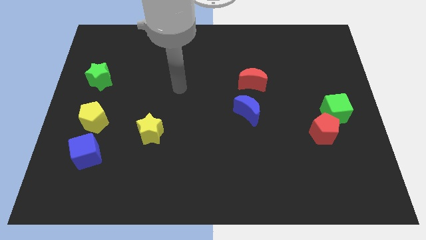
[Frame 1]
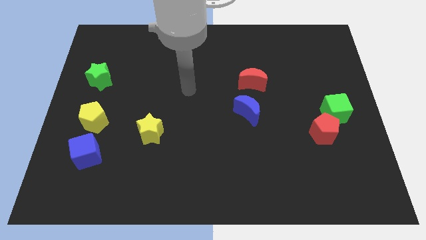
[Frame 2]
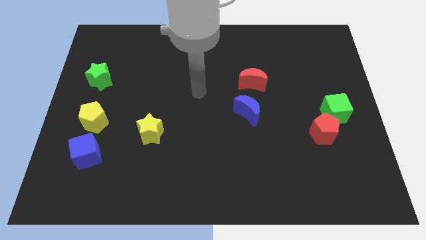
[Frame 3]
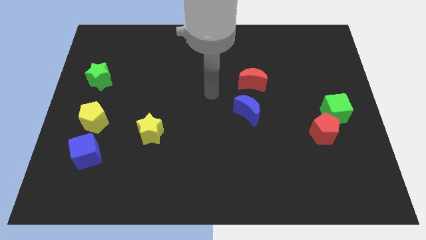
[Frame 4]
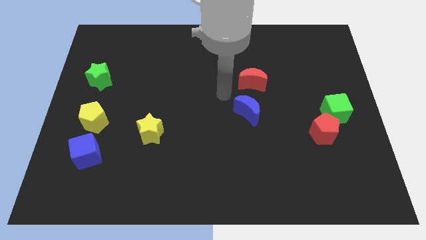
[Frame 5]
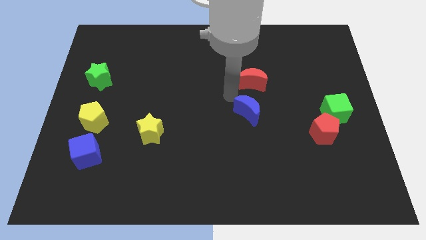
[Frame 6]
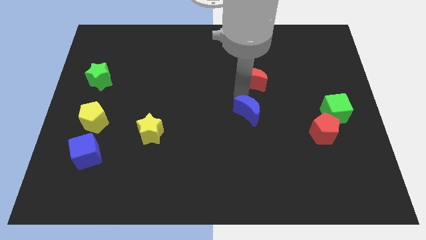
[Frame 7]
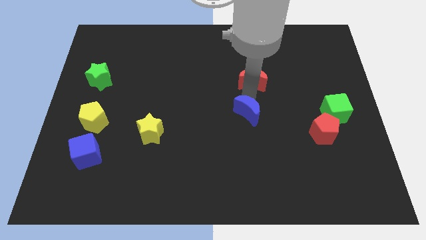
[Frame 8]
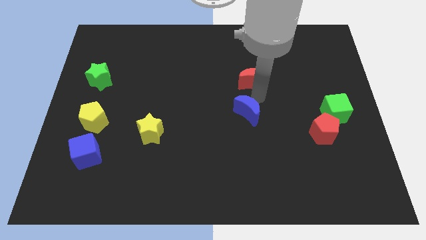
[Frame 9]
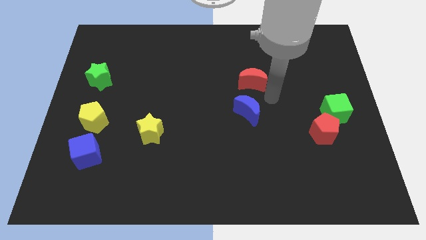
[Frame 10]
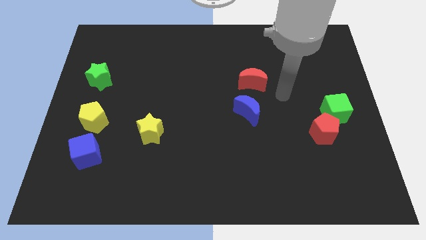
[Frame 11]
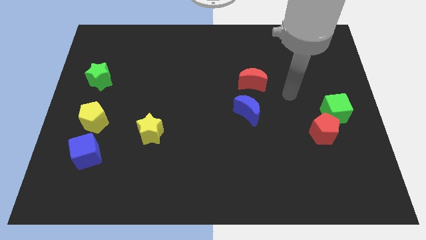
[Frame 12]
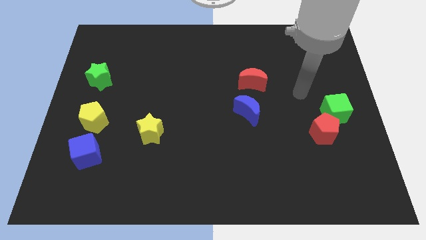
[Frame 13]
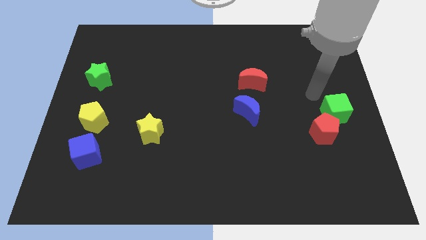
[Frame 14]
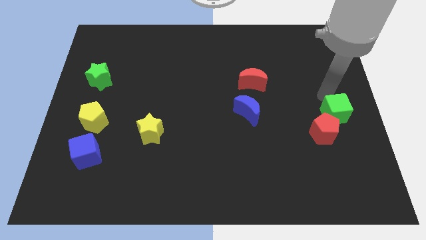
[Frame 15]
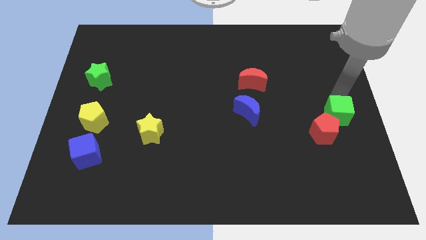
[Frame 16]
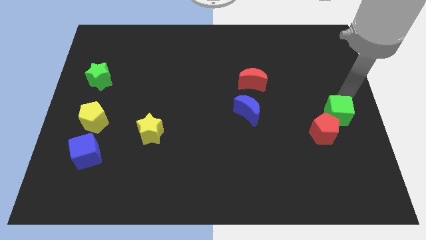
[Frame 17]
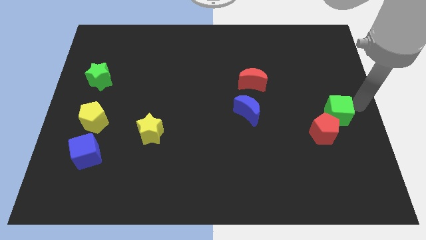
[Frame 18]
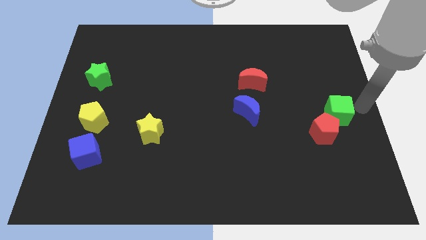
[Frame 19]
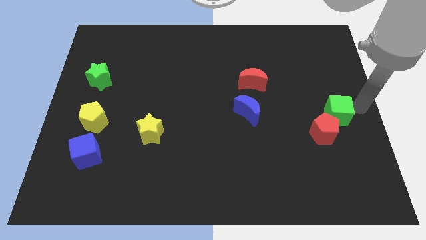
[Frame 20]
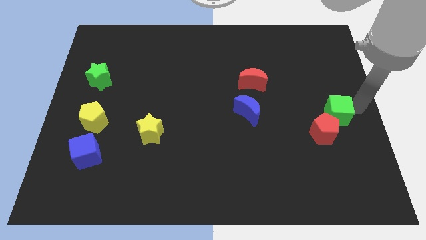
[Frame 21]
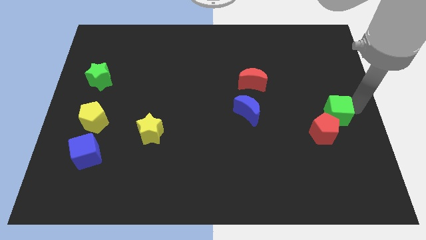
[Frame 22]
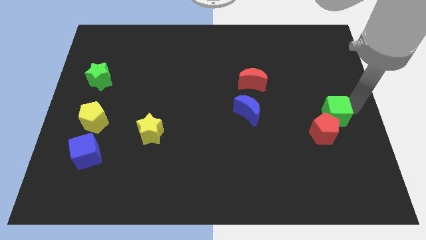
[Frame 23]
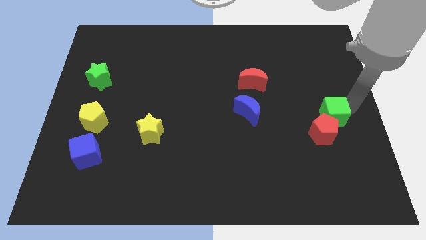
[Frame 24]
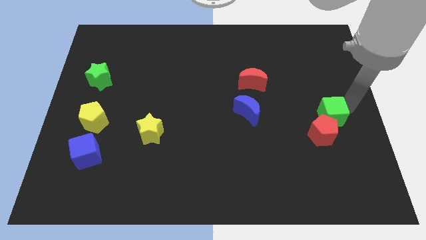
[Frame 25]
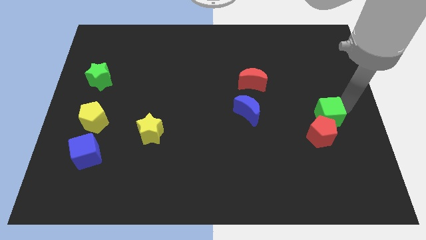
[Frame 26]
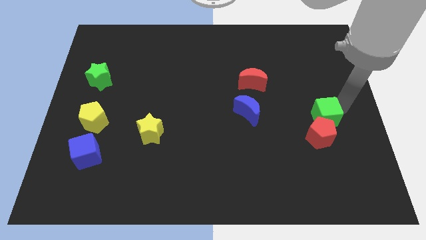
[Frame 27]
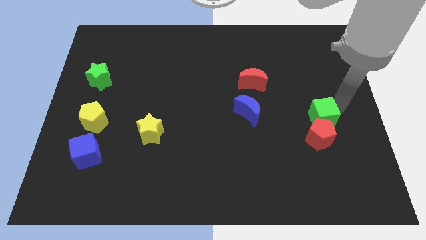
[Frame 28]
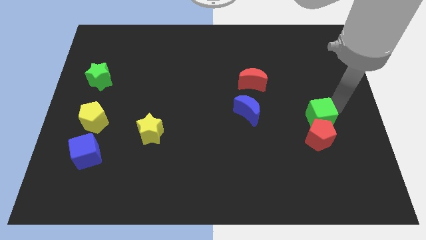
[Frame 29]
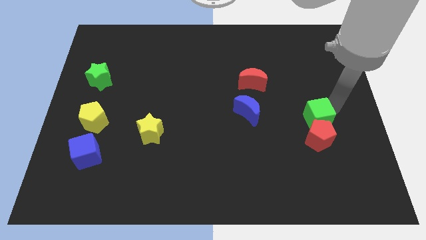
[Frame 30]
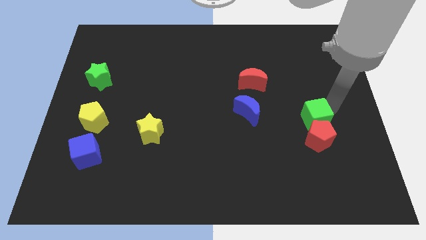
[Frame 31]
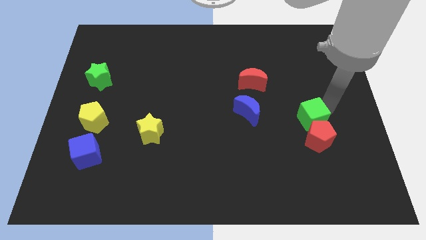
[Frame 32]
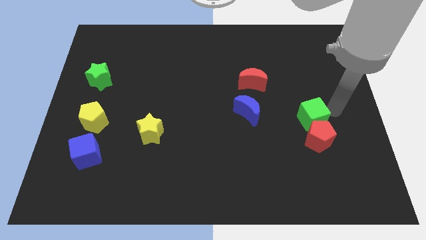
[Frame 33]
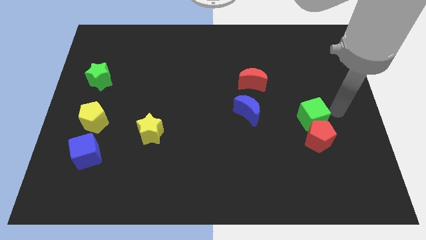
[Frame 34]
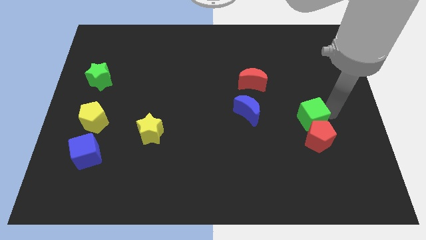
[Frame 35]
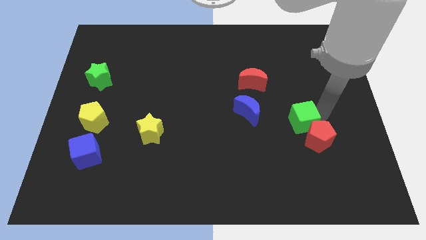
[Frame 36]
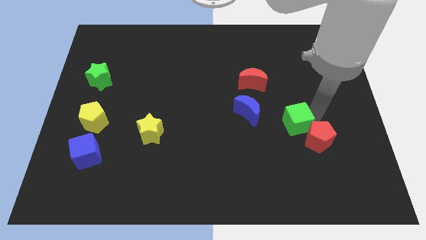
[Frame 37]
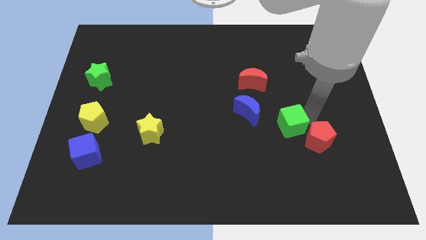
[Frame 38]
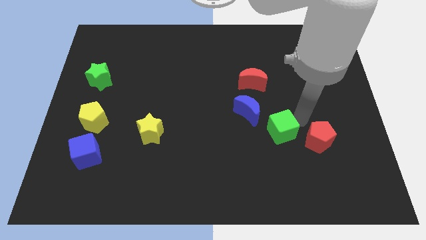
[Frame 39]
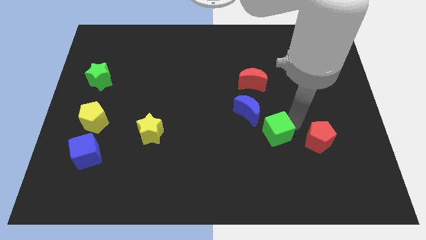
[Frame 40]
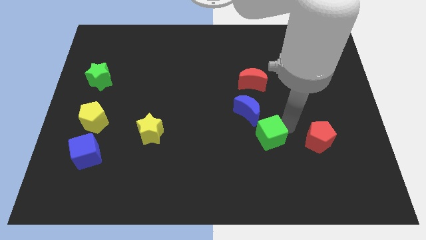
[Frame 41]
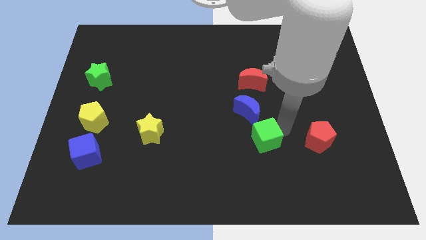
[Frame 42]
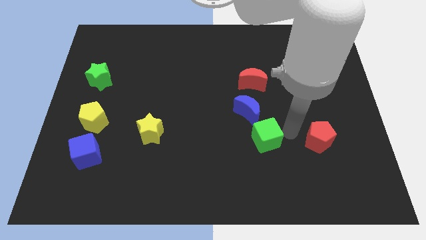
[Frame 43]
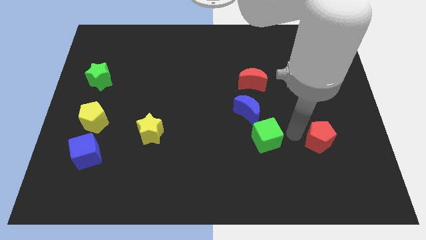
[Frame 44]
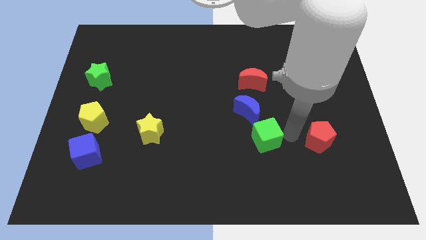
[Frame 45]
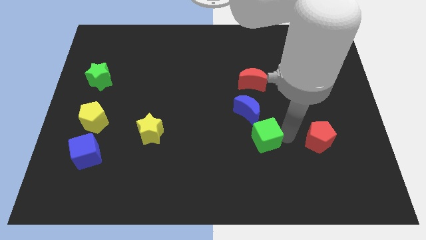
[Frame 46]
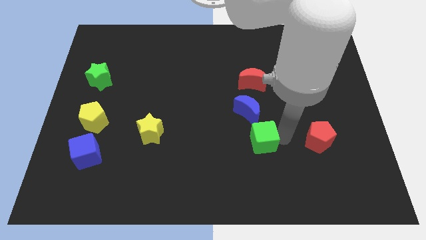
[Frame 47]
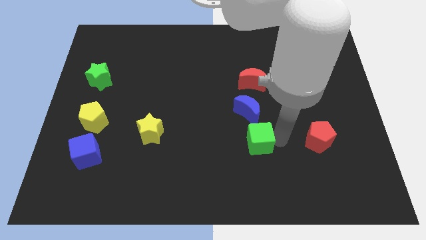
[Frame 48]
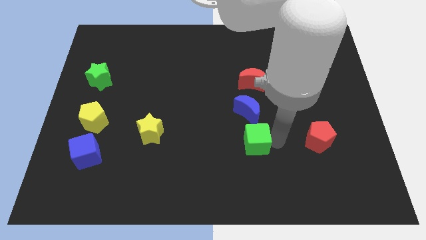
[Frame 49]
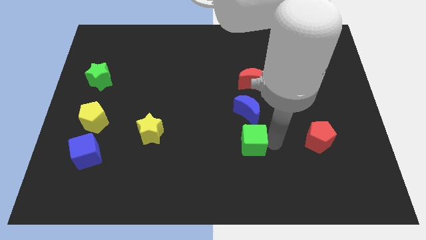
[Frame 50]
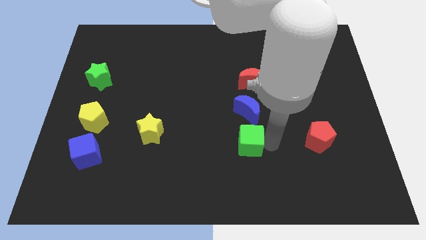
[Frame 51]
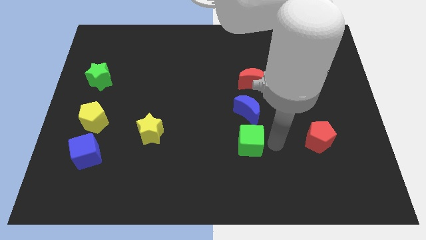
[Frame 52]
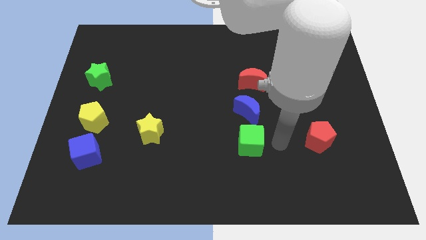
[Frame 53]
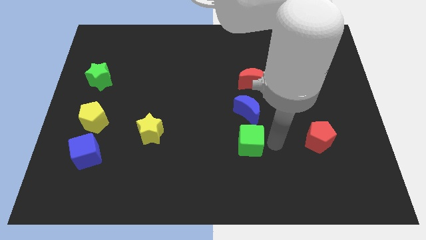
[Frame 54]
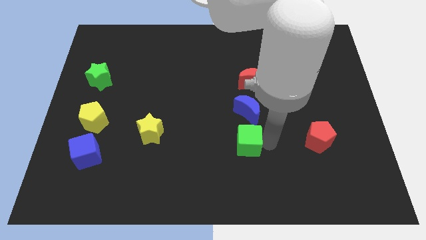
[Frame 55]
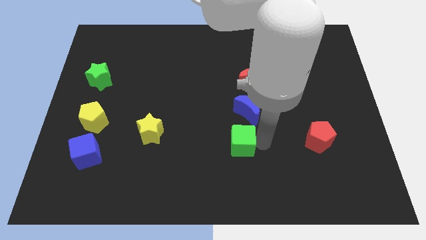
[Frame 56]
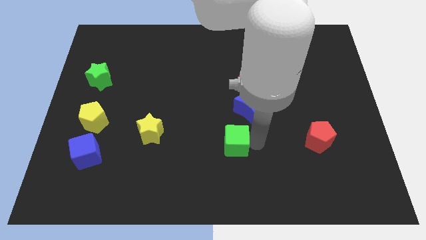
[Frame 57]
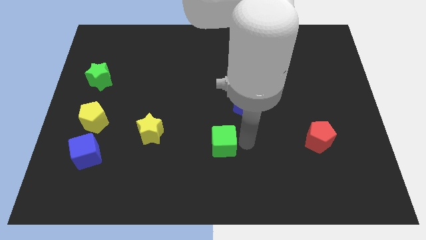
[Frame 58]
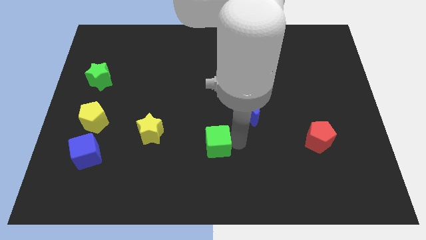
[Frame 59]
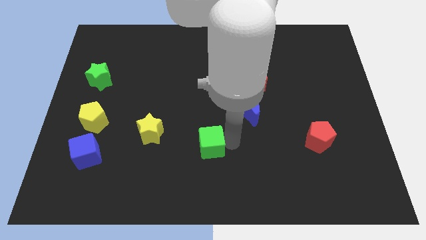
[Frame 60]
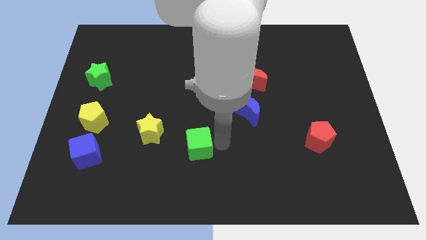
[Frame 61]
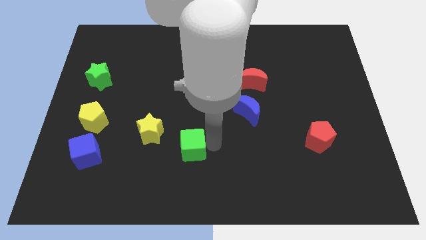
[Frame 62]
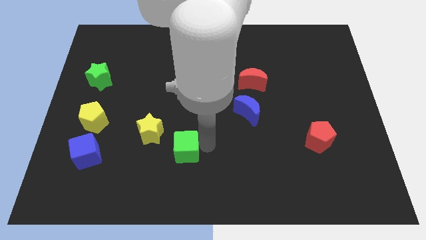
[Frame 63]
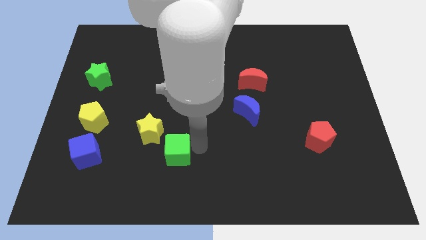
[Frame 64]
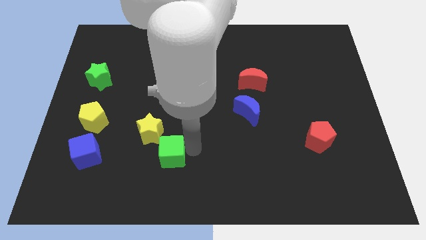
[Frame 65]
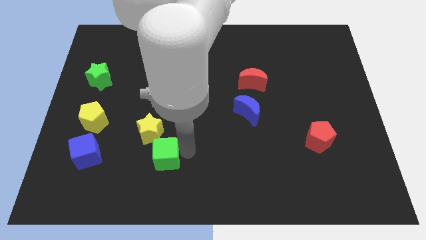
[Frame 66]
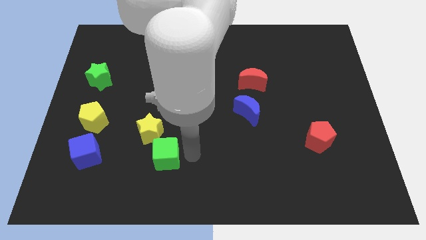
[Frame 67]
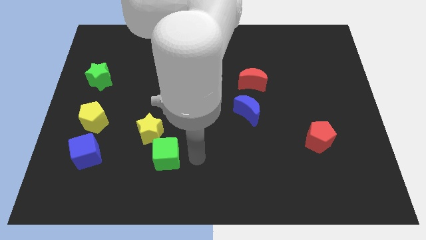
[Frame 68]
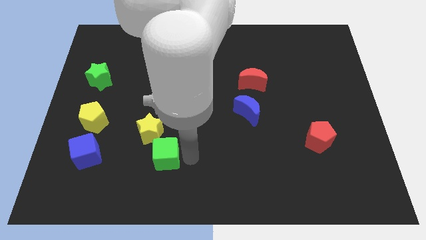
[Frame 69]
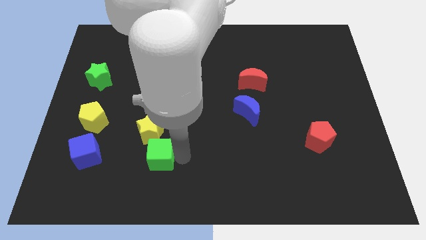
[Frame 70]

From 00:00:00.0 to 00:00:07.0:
move the green cube to the right side of the blue cube

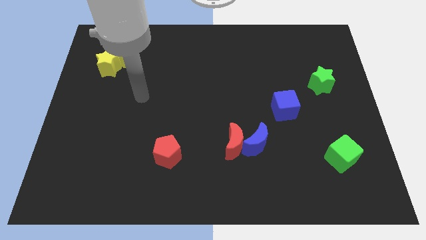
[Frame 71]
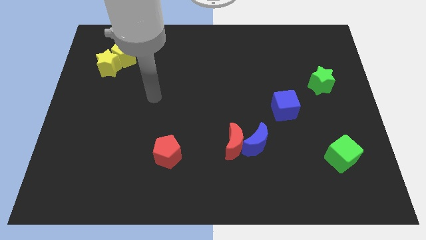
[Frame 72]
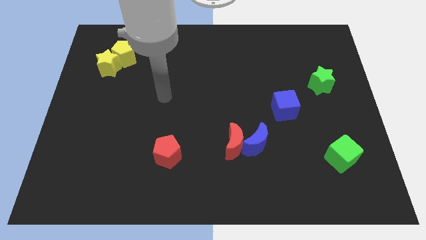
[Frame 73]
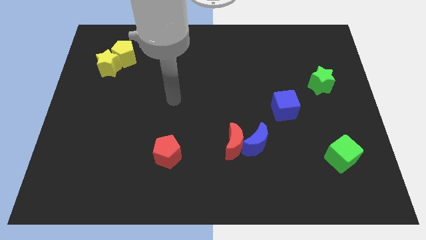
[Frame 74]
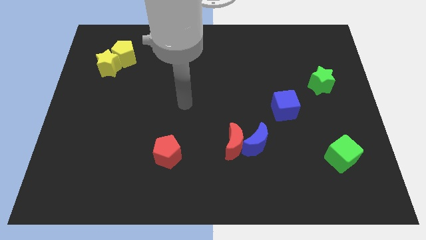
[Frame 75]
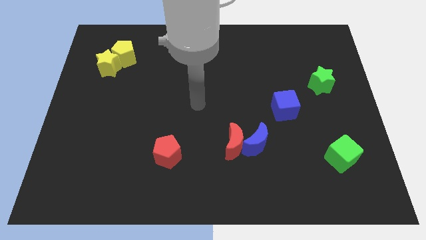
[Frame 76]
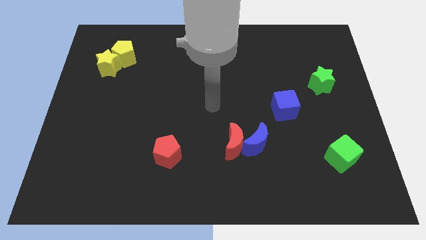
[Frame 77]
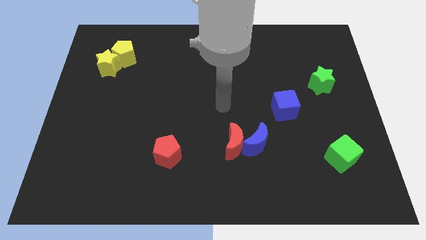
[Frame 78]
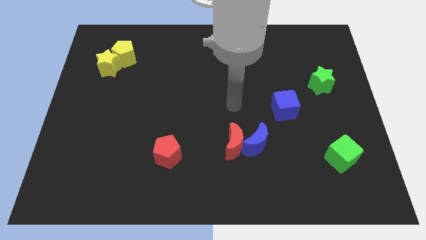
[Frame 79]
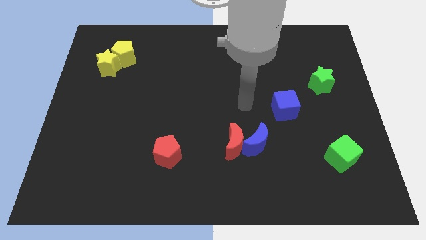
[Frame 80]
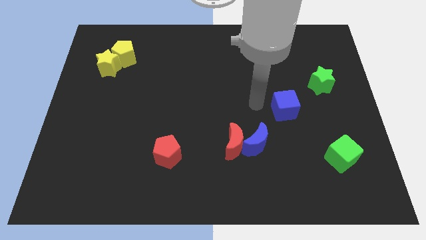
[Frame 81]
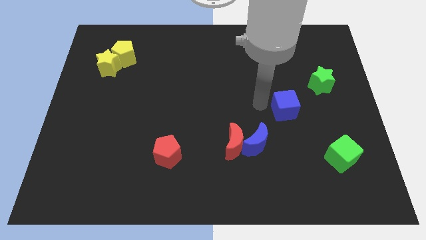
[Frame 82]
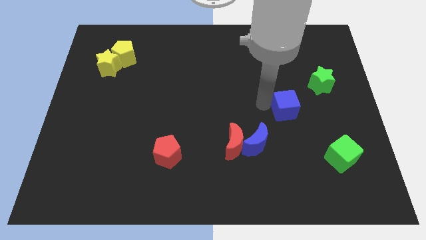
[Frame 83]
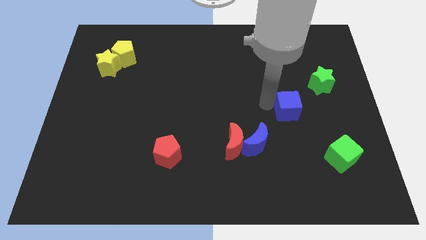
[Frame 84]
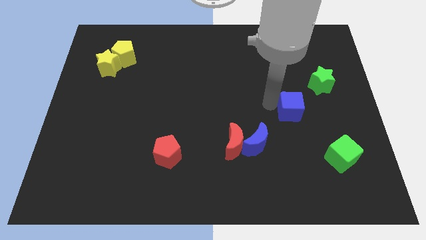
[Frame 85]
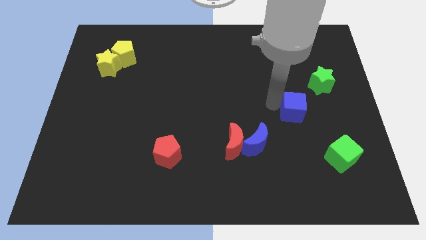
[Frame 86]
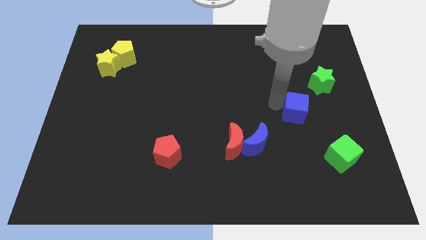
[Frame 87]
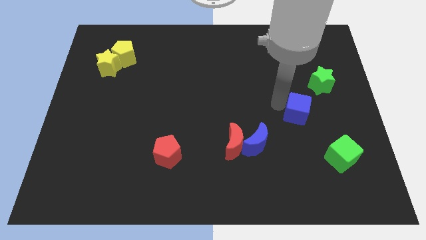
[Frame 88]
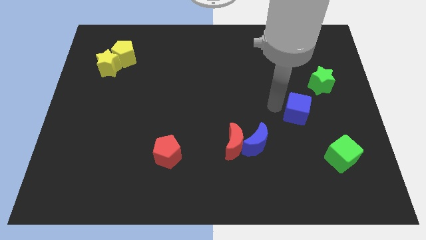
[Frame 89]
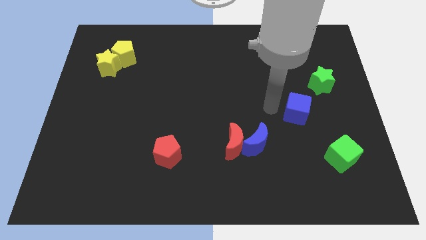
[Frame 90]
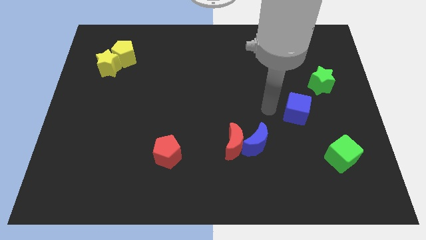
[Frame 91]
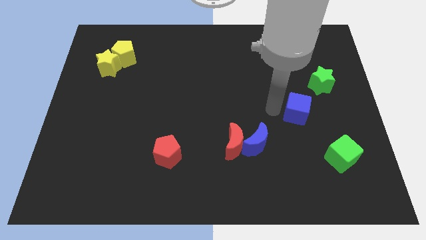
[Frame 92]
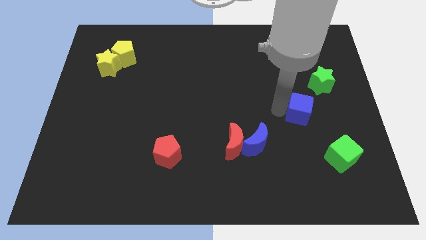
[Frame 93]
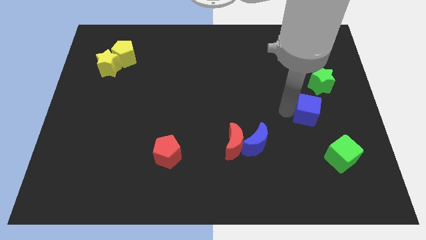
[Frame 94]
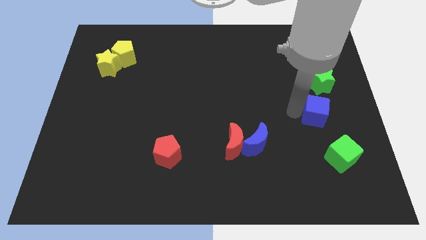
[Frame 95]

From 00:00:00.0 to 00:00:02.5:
slide the blue cube to the top of the green cube
